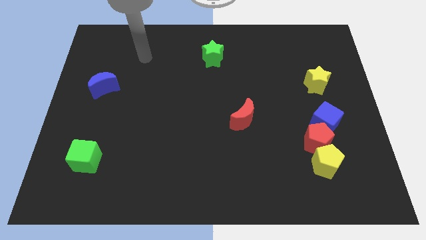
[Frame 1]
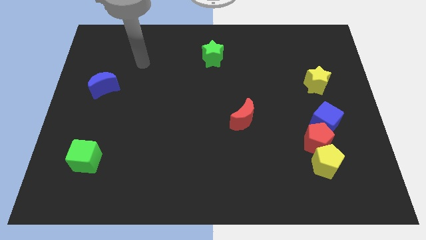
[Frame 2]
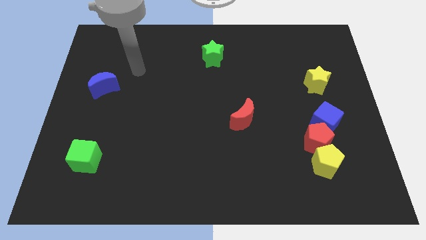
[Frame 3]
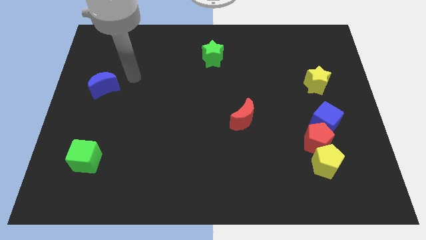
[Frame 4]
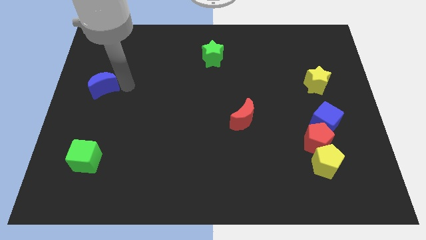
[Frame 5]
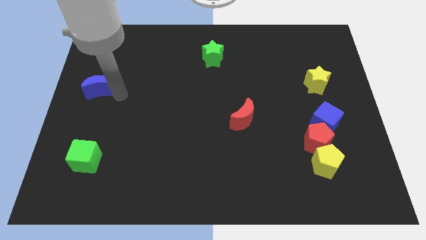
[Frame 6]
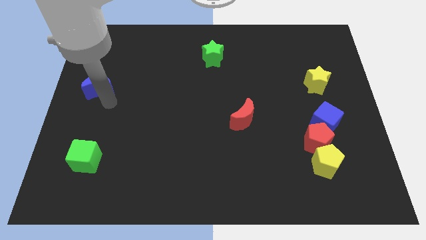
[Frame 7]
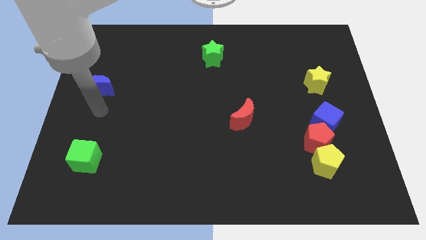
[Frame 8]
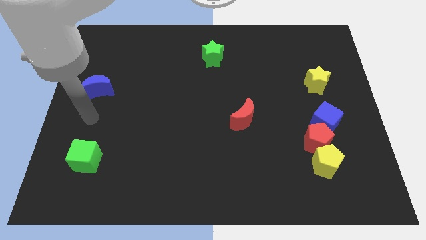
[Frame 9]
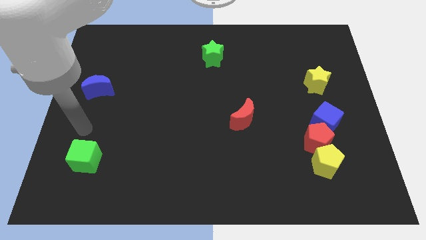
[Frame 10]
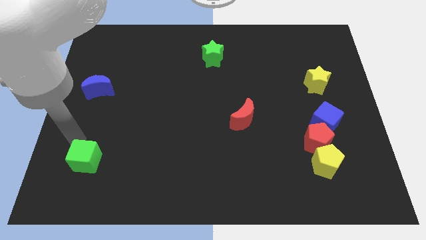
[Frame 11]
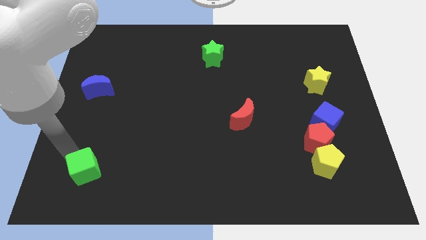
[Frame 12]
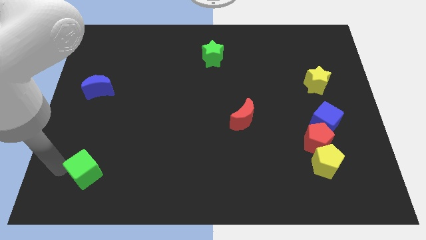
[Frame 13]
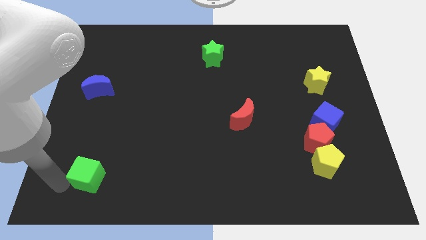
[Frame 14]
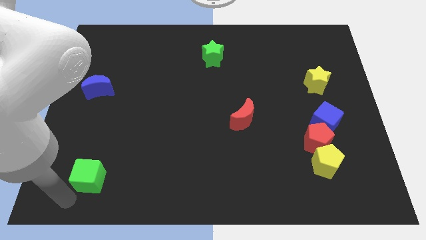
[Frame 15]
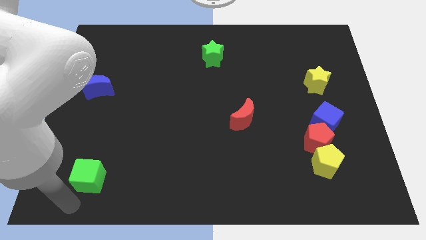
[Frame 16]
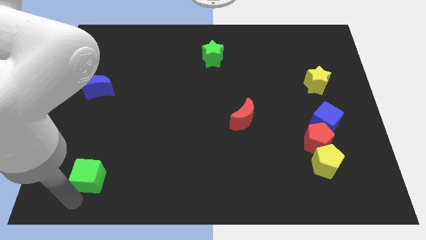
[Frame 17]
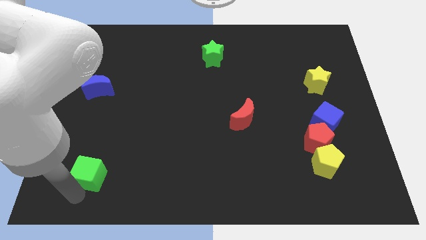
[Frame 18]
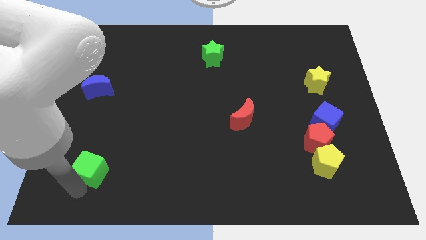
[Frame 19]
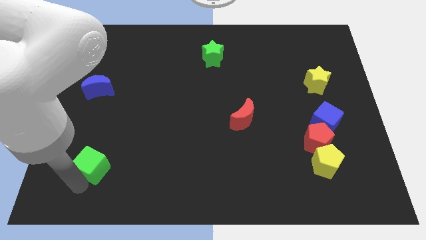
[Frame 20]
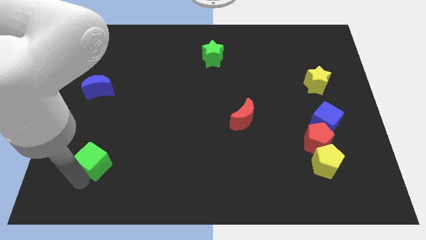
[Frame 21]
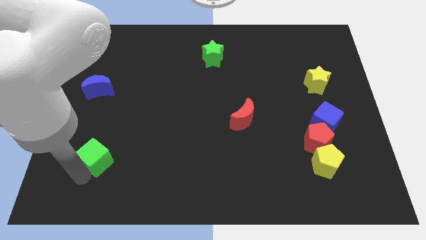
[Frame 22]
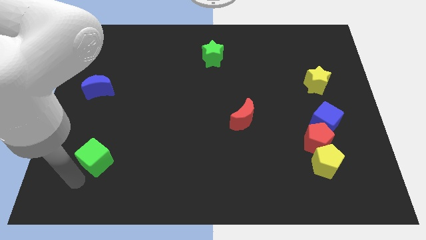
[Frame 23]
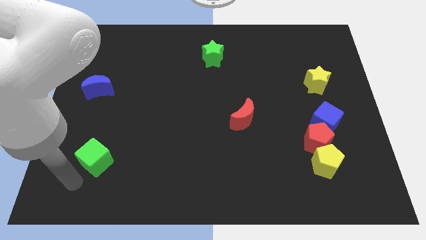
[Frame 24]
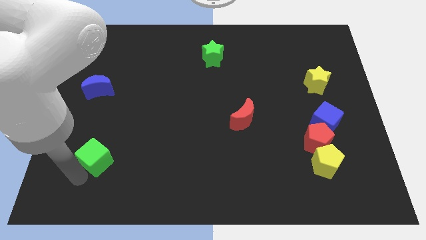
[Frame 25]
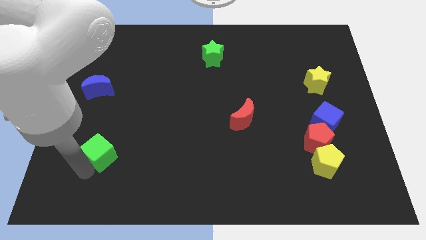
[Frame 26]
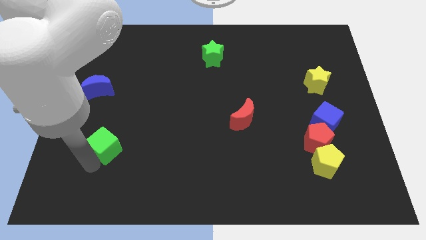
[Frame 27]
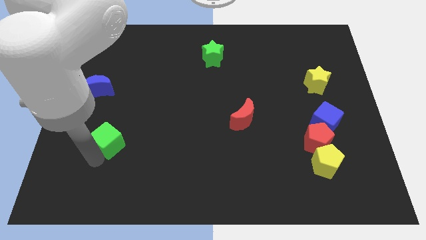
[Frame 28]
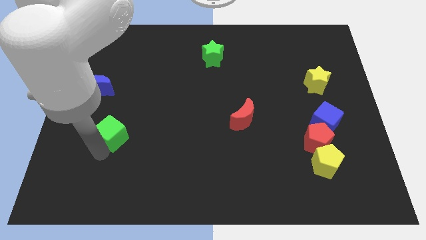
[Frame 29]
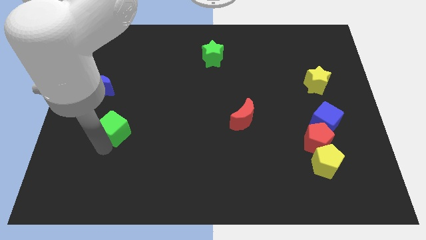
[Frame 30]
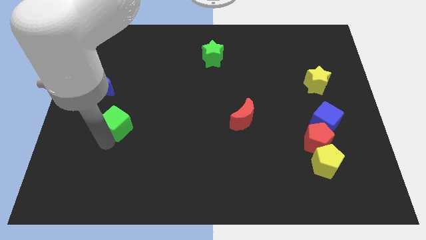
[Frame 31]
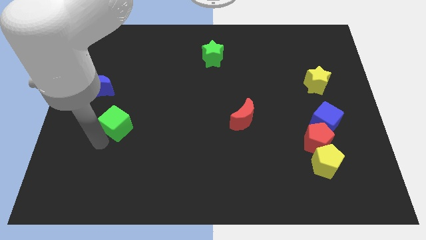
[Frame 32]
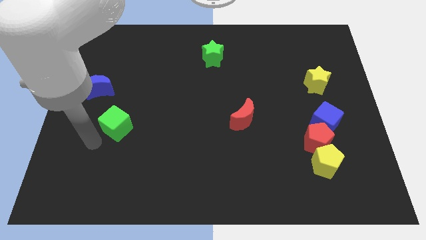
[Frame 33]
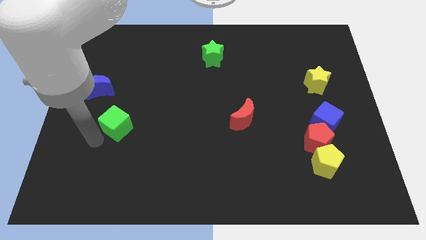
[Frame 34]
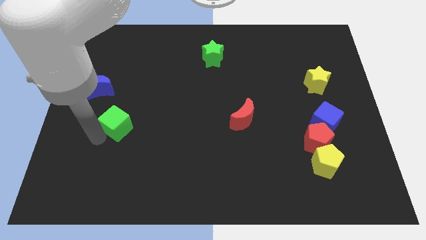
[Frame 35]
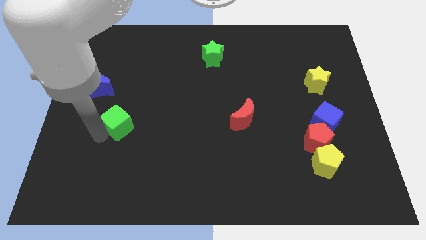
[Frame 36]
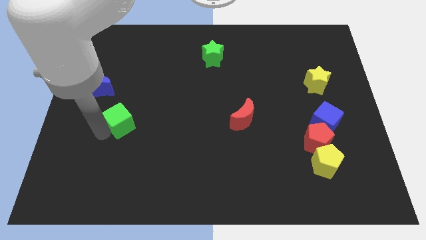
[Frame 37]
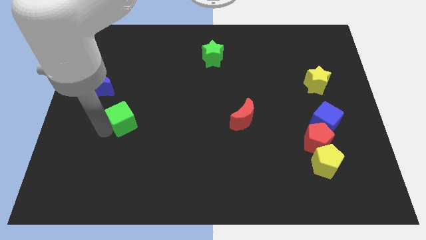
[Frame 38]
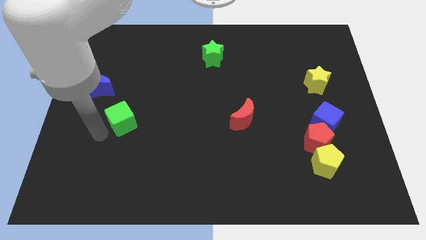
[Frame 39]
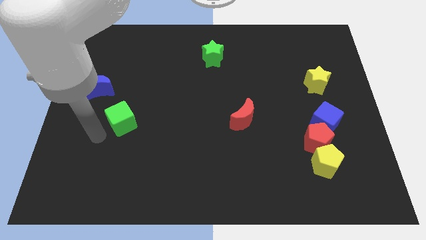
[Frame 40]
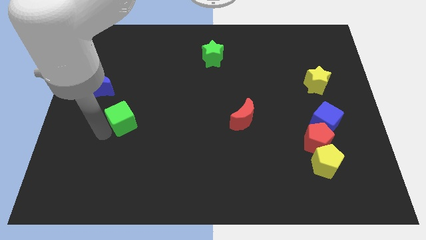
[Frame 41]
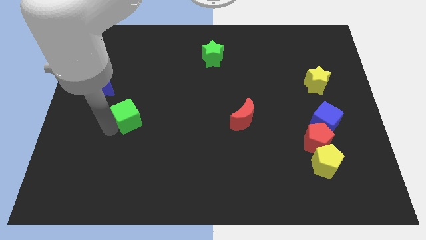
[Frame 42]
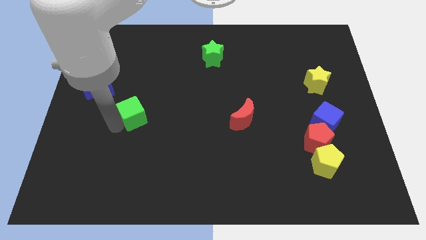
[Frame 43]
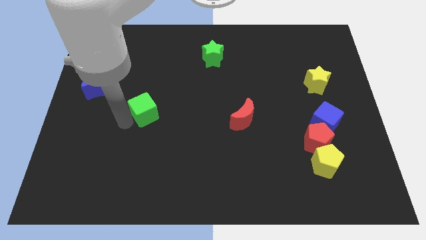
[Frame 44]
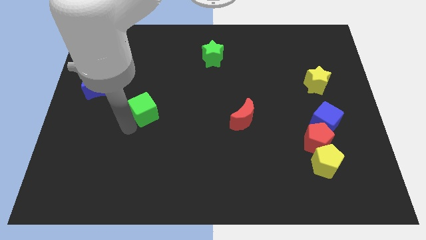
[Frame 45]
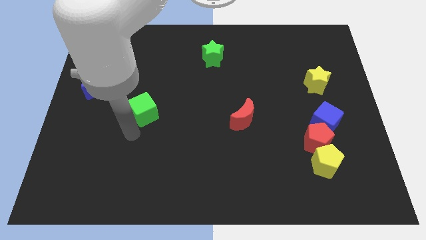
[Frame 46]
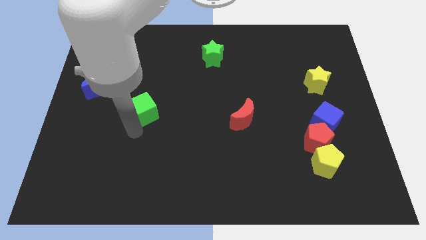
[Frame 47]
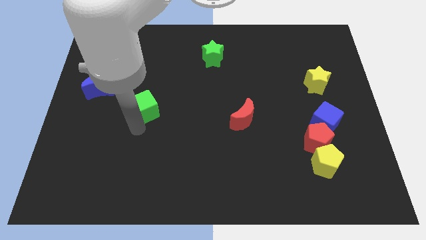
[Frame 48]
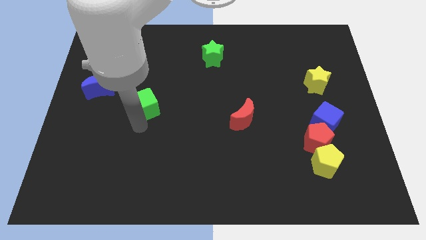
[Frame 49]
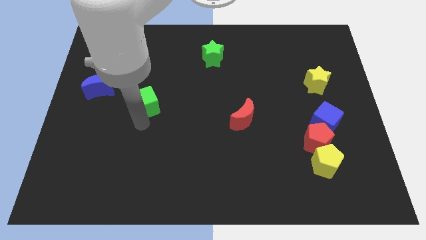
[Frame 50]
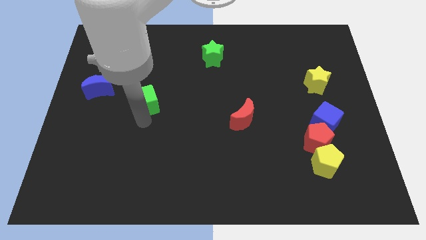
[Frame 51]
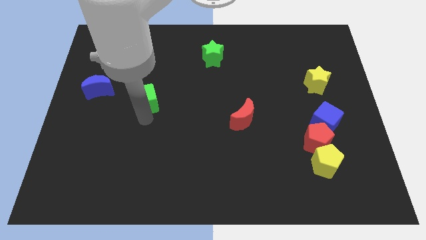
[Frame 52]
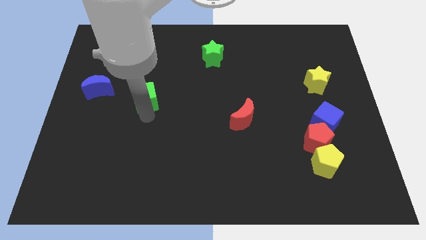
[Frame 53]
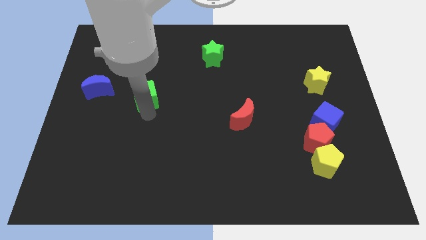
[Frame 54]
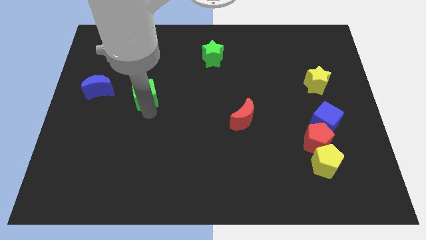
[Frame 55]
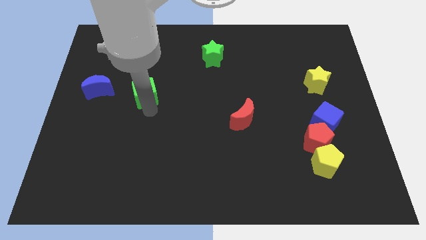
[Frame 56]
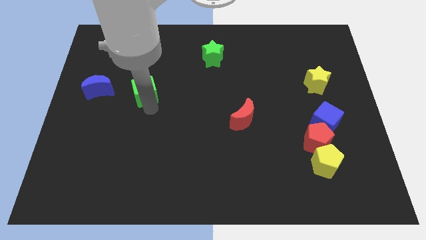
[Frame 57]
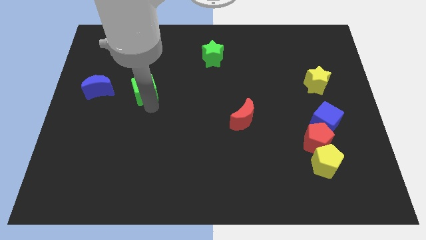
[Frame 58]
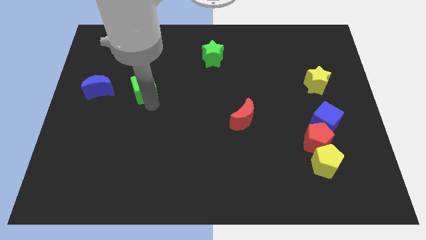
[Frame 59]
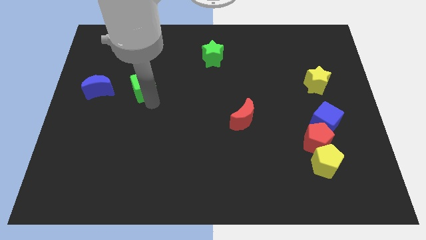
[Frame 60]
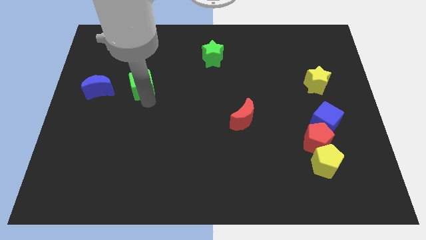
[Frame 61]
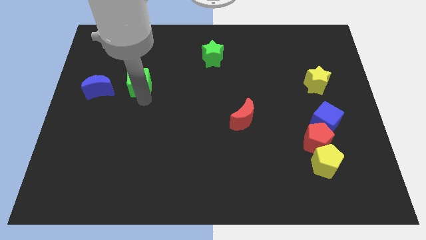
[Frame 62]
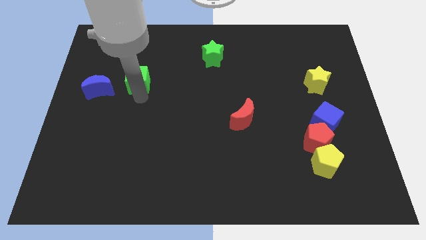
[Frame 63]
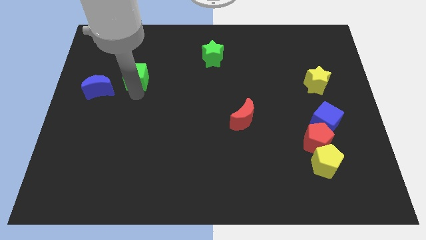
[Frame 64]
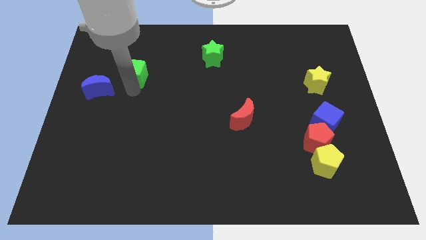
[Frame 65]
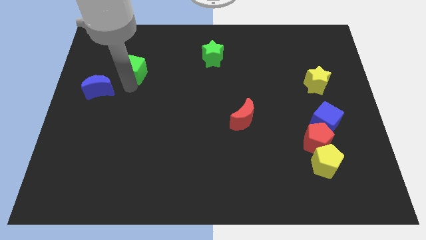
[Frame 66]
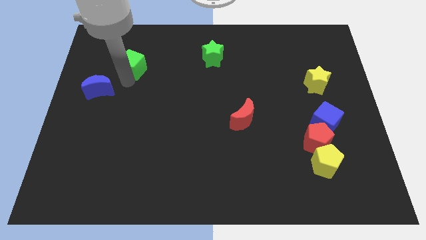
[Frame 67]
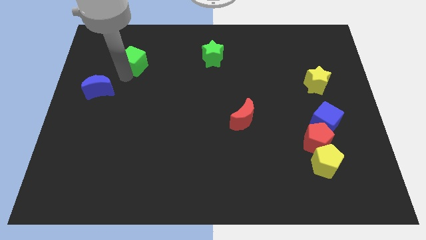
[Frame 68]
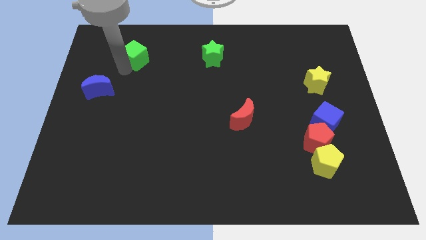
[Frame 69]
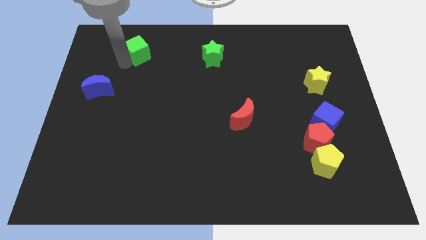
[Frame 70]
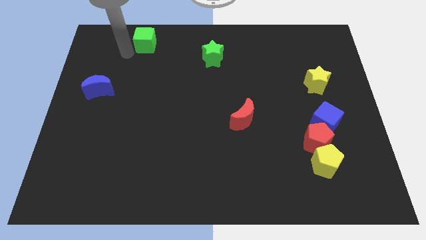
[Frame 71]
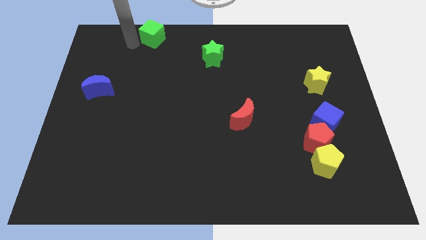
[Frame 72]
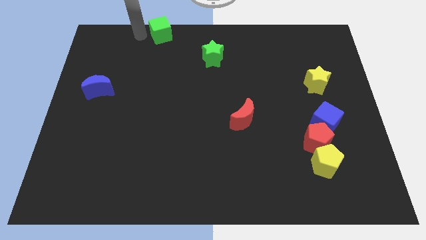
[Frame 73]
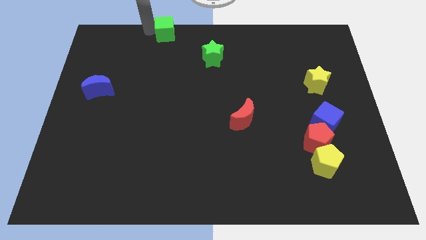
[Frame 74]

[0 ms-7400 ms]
put the green cube to the towards your base
